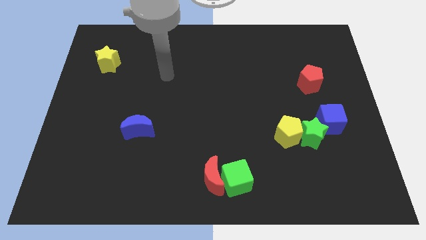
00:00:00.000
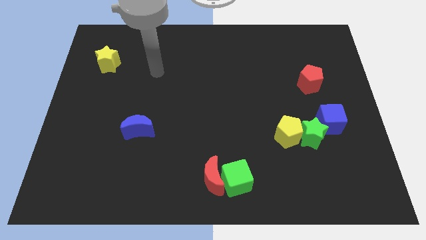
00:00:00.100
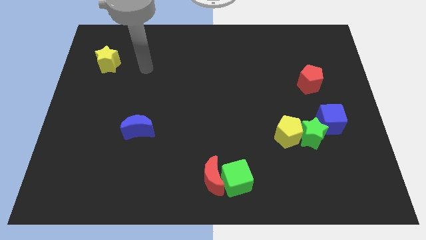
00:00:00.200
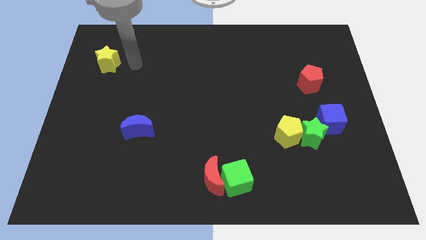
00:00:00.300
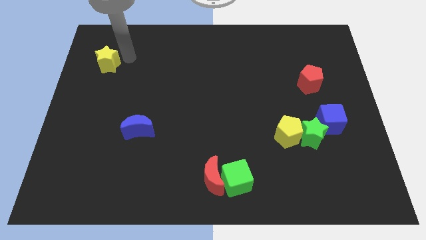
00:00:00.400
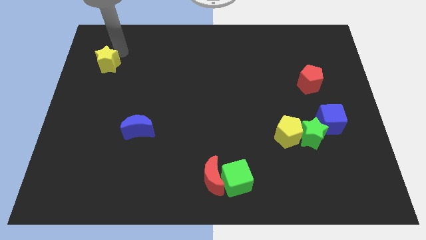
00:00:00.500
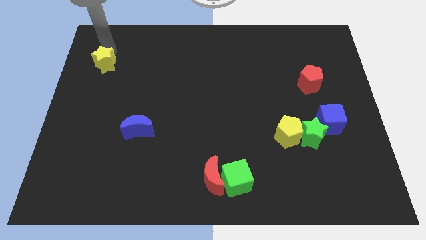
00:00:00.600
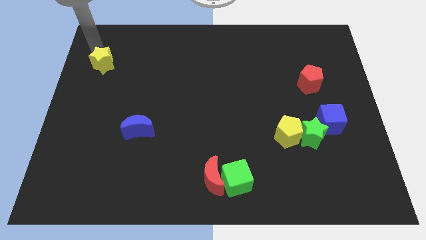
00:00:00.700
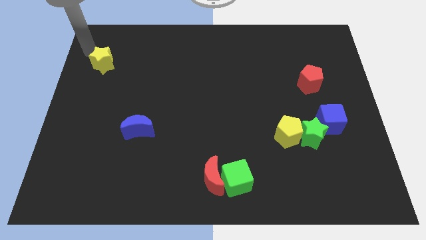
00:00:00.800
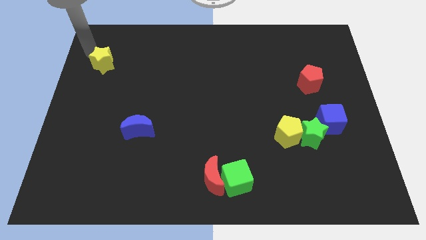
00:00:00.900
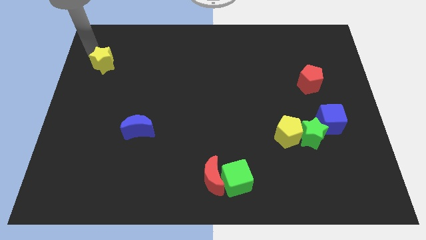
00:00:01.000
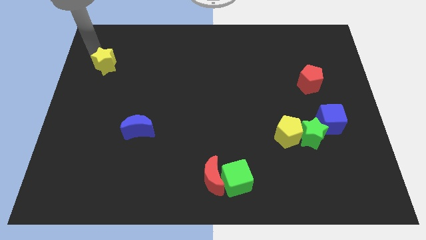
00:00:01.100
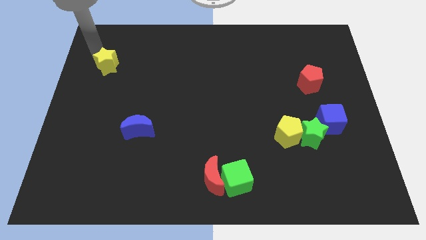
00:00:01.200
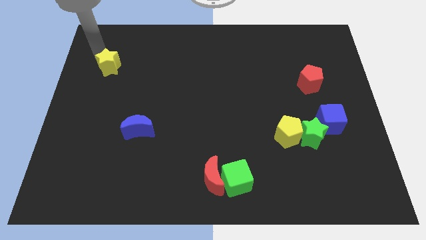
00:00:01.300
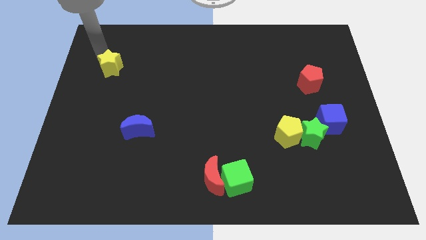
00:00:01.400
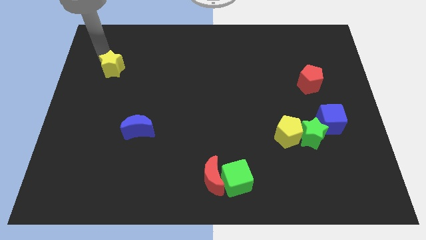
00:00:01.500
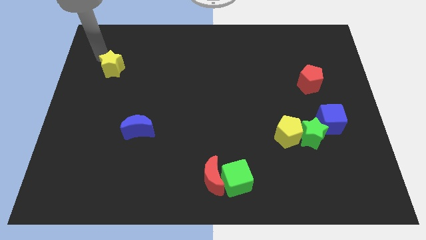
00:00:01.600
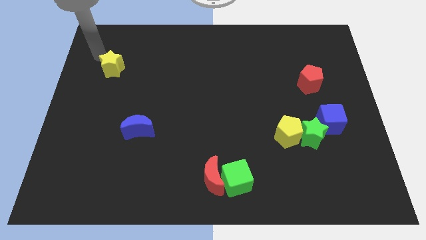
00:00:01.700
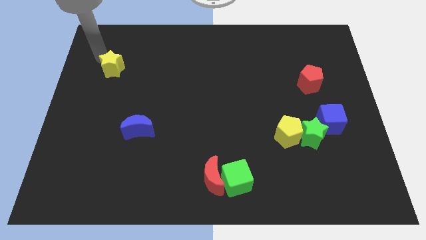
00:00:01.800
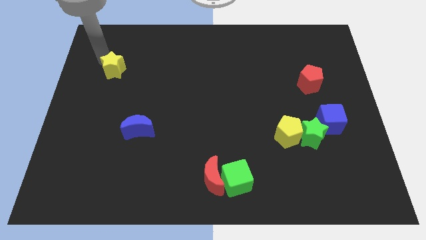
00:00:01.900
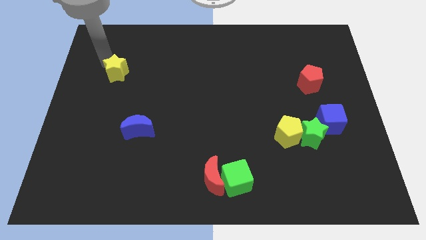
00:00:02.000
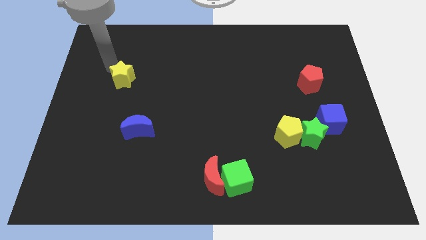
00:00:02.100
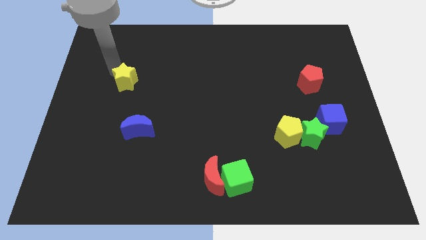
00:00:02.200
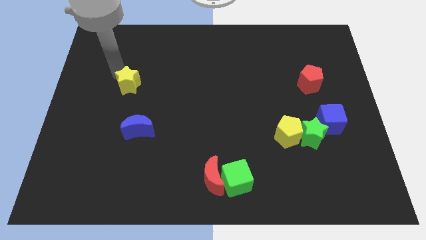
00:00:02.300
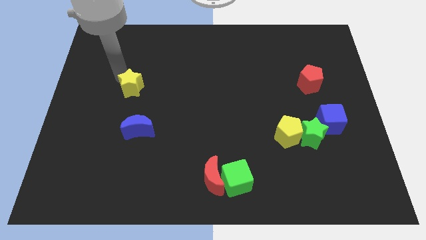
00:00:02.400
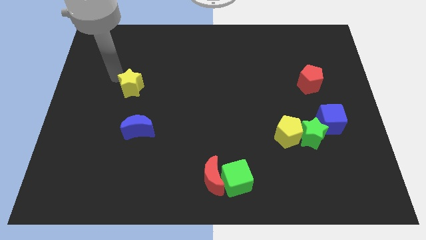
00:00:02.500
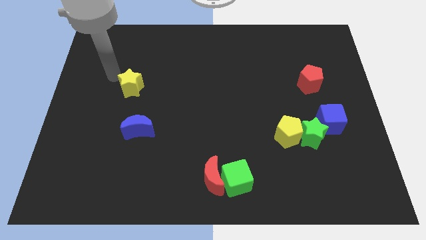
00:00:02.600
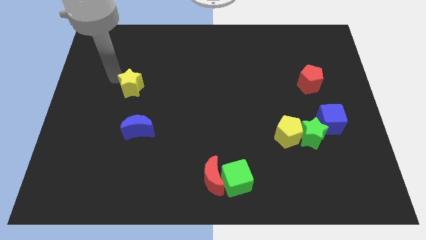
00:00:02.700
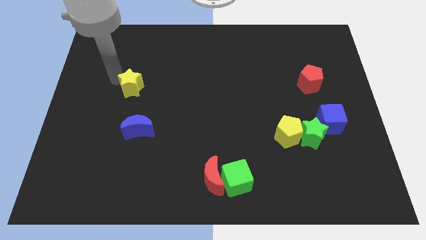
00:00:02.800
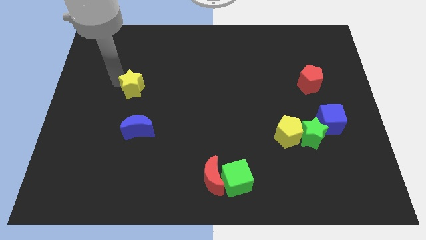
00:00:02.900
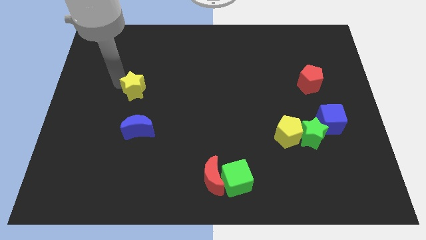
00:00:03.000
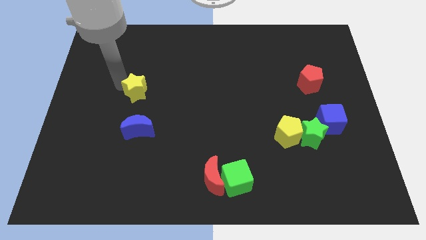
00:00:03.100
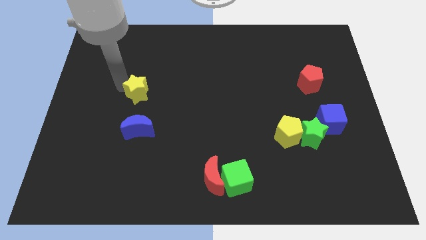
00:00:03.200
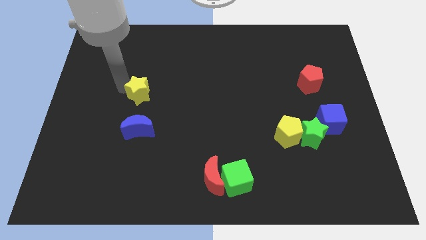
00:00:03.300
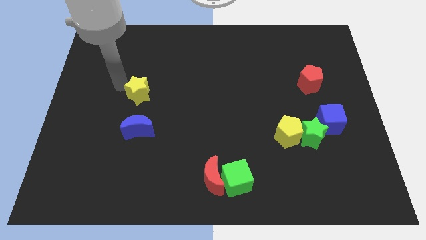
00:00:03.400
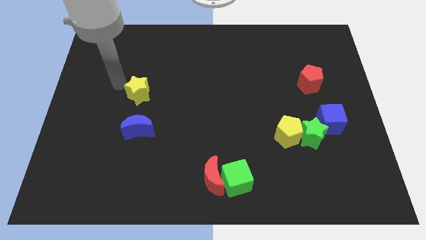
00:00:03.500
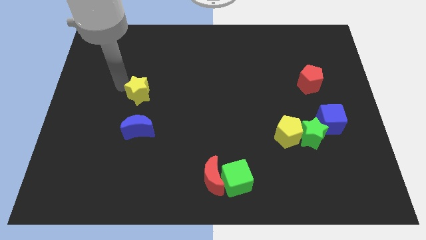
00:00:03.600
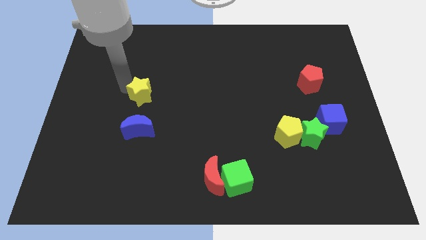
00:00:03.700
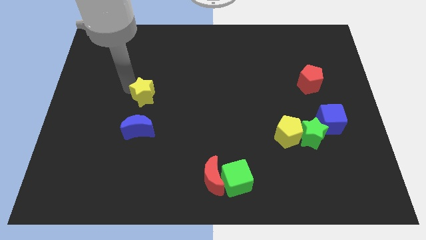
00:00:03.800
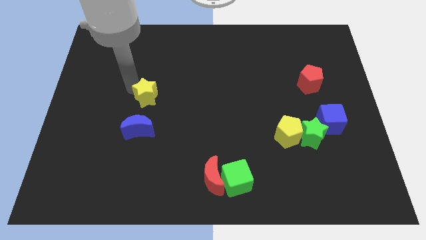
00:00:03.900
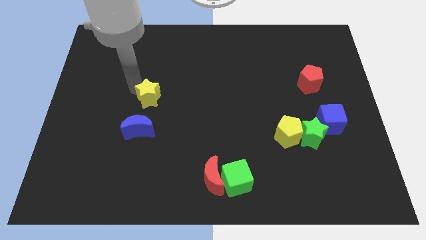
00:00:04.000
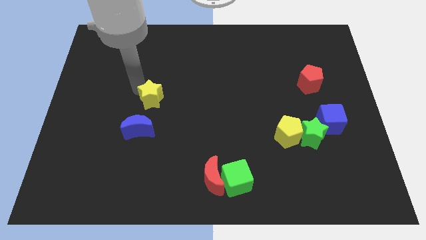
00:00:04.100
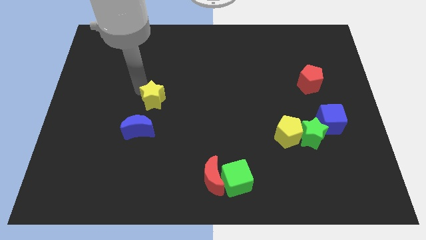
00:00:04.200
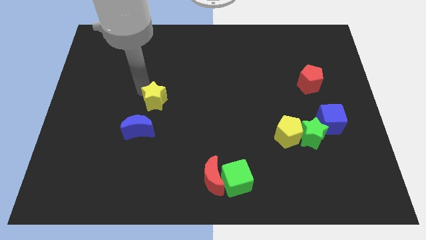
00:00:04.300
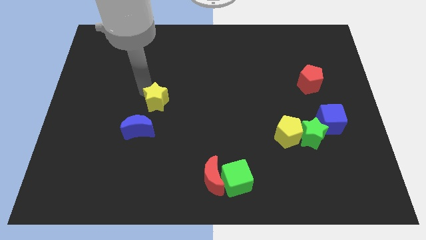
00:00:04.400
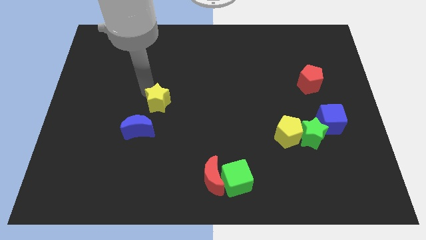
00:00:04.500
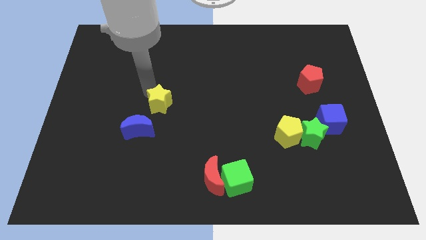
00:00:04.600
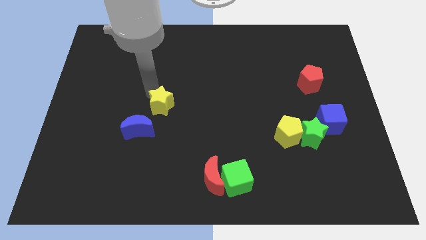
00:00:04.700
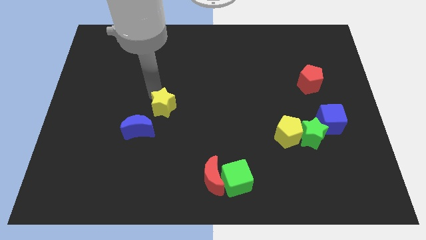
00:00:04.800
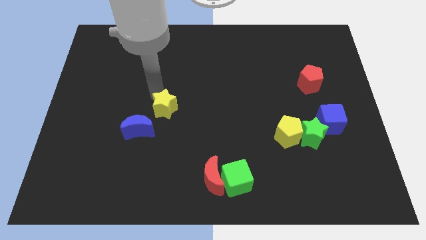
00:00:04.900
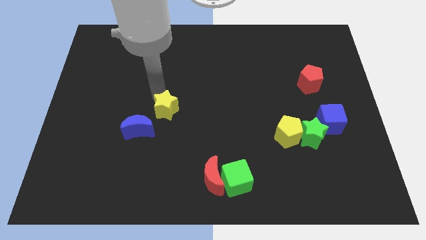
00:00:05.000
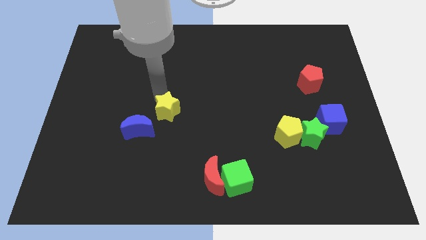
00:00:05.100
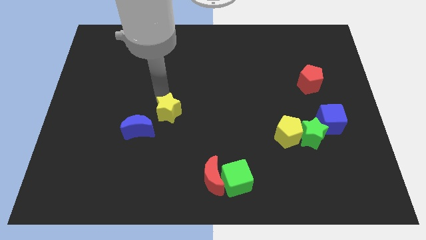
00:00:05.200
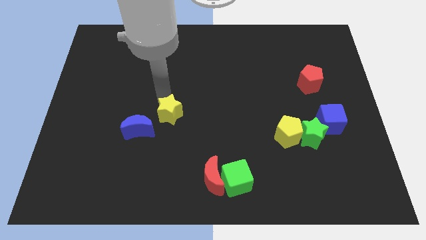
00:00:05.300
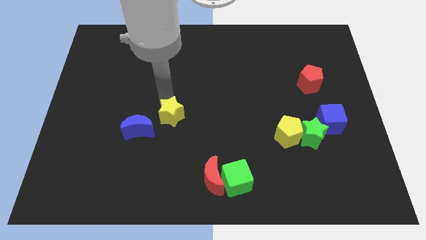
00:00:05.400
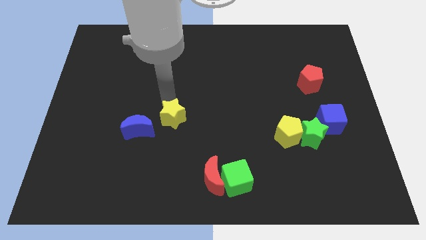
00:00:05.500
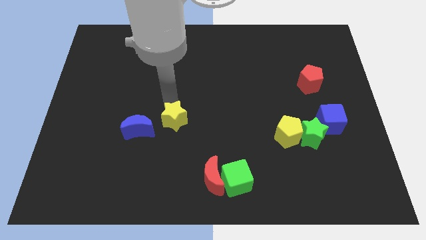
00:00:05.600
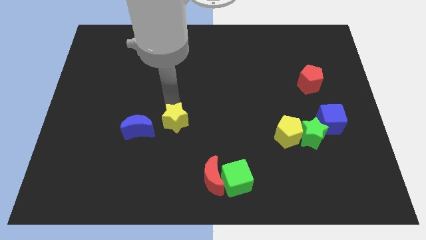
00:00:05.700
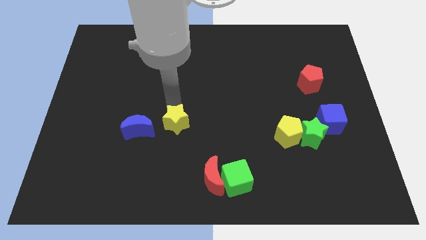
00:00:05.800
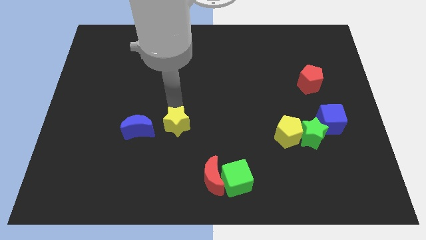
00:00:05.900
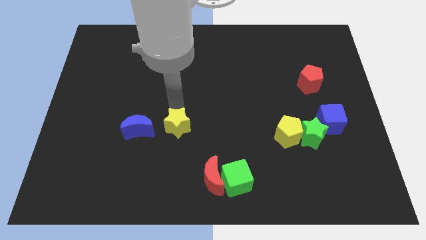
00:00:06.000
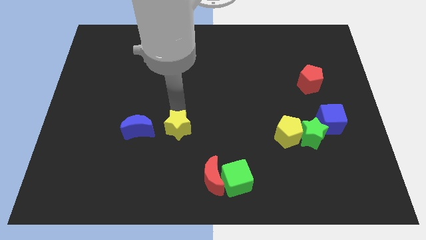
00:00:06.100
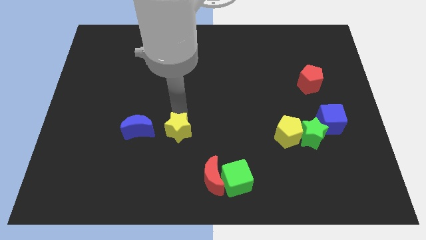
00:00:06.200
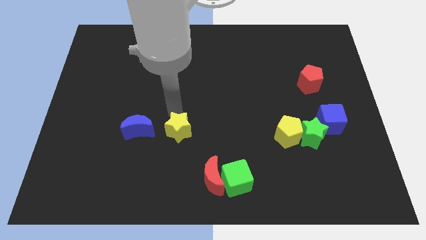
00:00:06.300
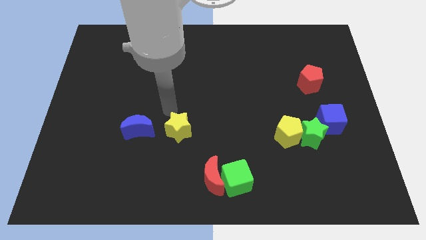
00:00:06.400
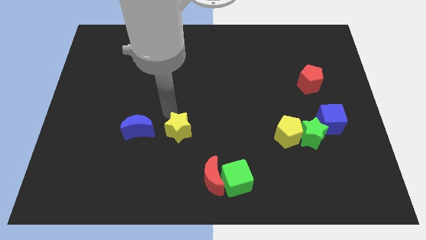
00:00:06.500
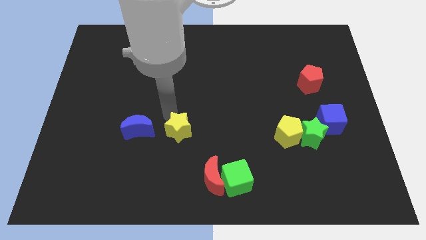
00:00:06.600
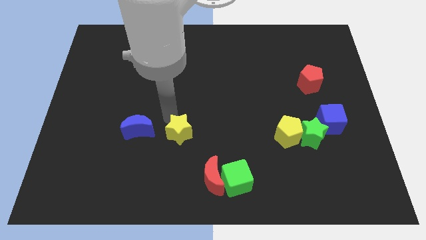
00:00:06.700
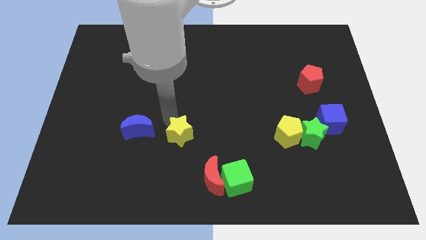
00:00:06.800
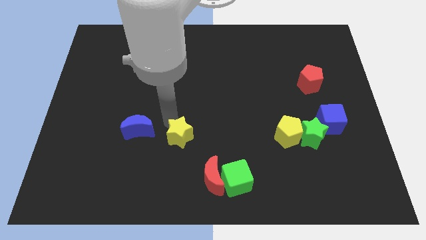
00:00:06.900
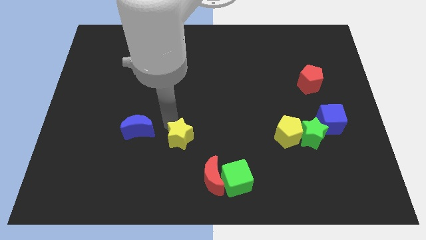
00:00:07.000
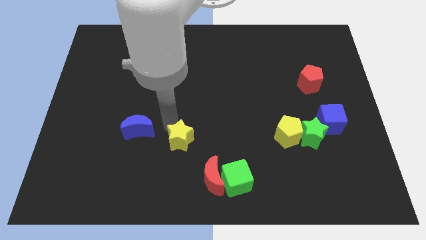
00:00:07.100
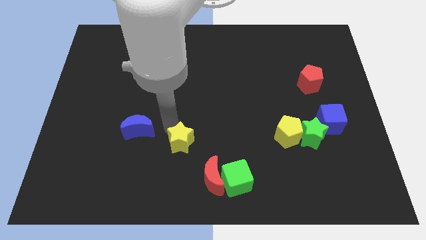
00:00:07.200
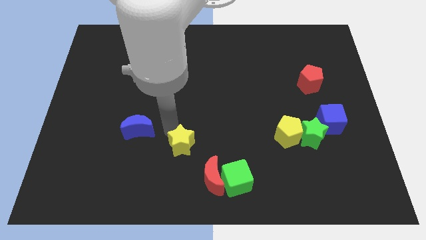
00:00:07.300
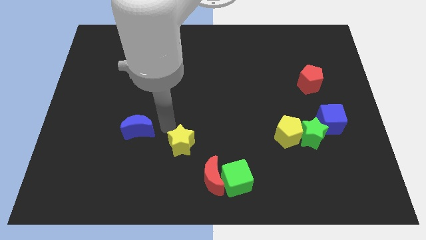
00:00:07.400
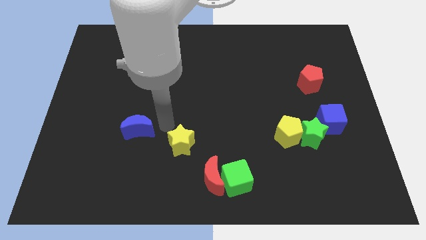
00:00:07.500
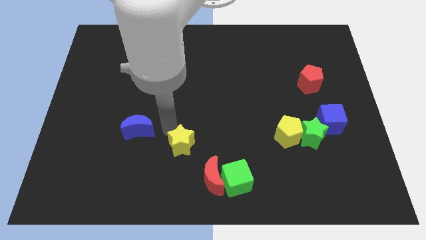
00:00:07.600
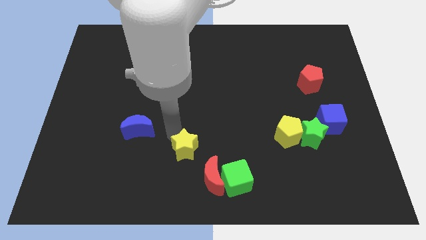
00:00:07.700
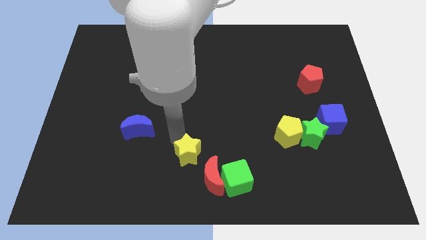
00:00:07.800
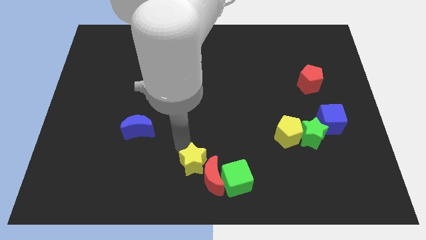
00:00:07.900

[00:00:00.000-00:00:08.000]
put the yellow star next to the red moon
